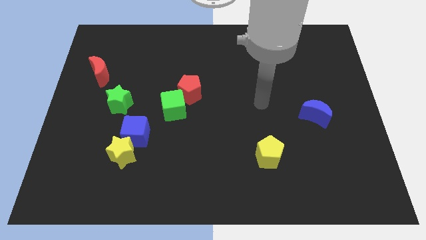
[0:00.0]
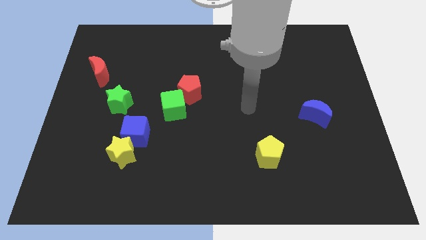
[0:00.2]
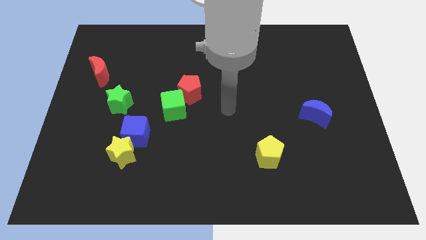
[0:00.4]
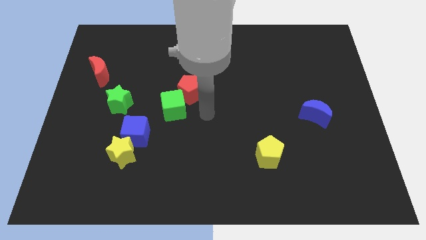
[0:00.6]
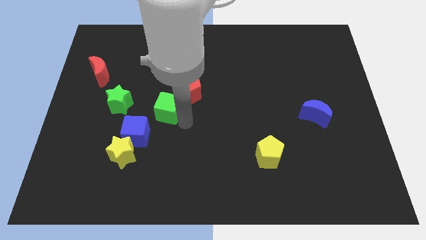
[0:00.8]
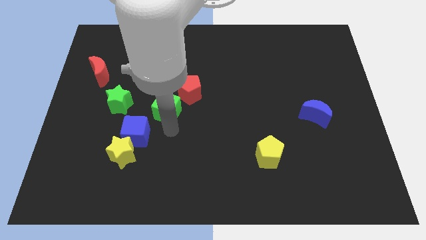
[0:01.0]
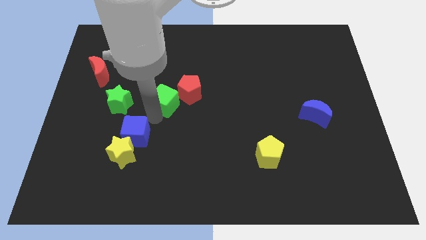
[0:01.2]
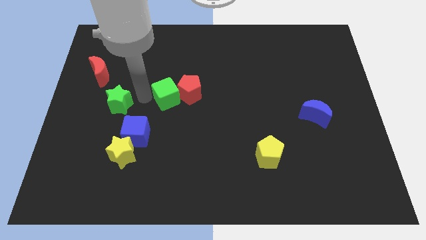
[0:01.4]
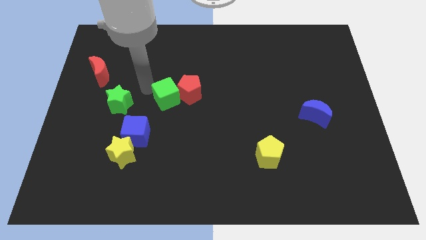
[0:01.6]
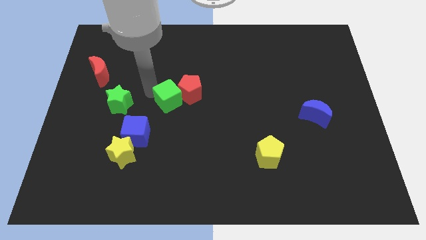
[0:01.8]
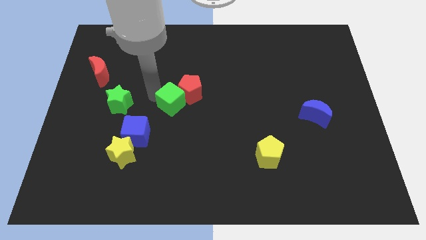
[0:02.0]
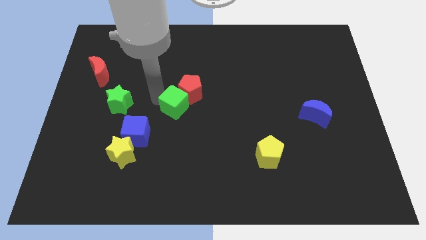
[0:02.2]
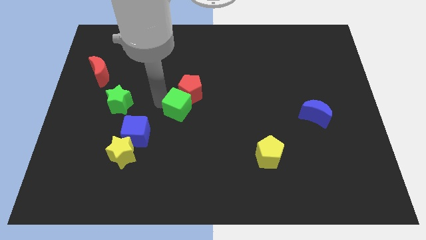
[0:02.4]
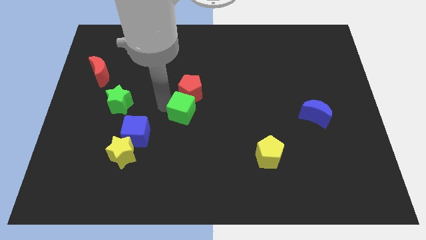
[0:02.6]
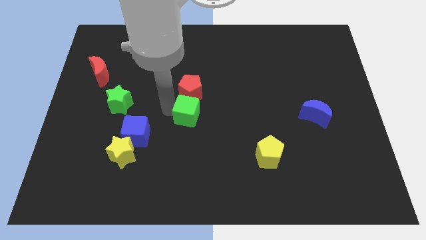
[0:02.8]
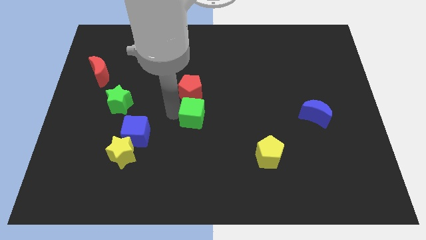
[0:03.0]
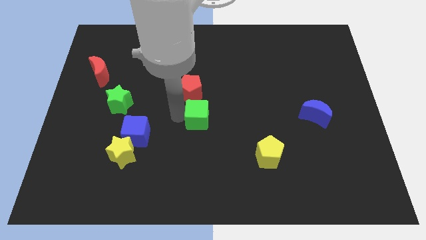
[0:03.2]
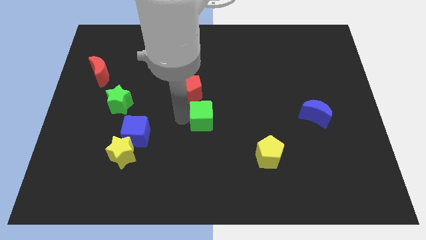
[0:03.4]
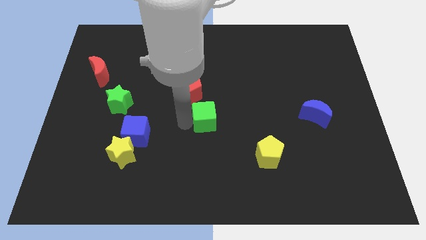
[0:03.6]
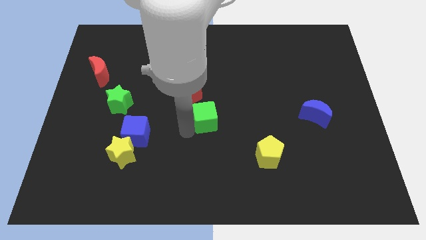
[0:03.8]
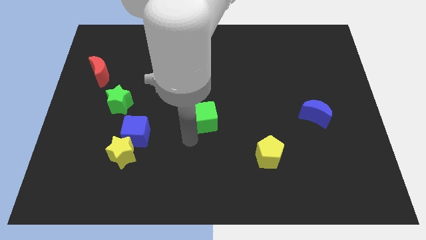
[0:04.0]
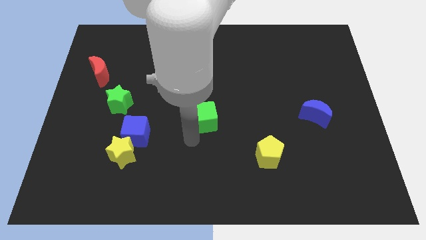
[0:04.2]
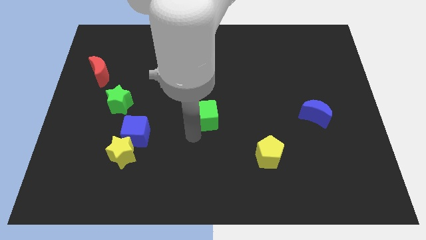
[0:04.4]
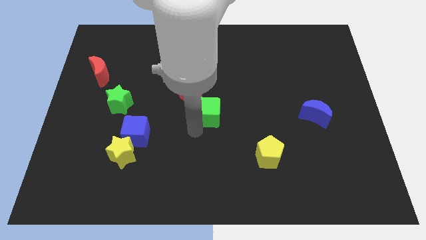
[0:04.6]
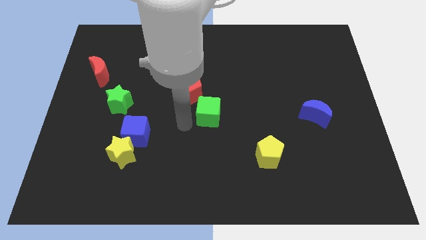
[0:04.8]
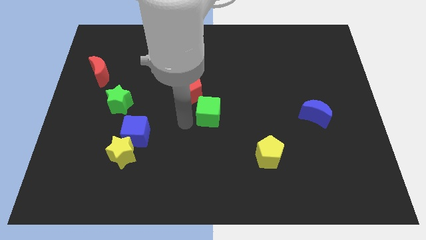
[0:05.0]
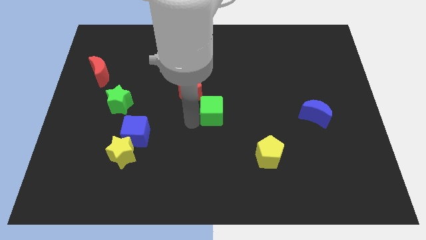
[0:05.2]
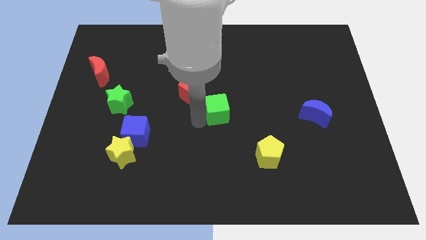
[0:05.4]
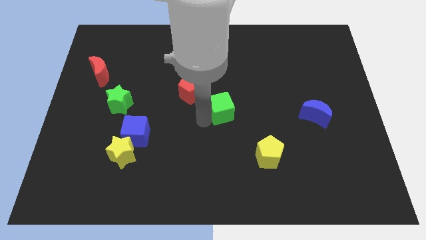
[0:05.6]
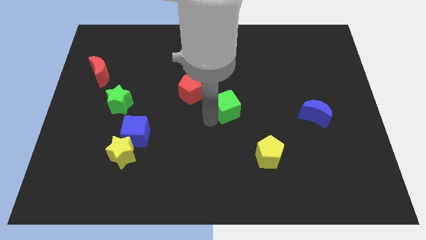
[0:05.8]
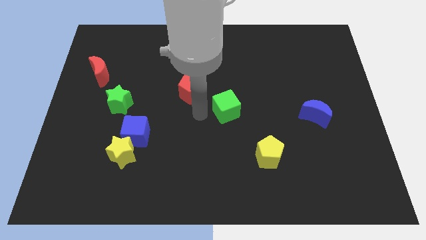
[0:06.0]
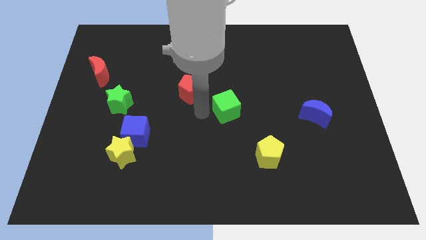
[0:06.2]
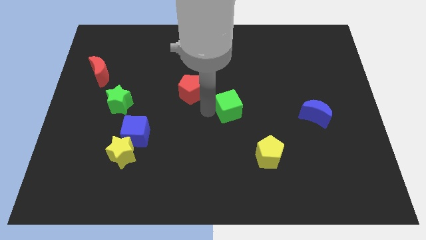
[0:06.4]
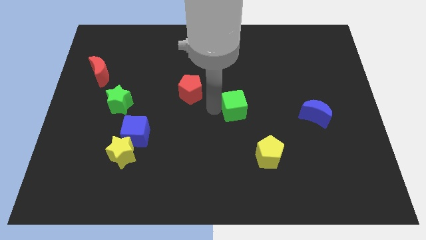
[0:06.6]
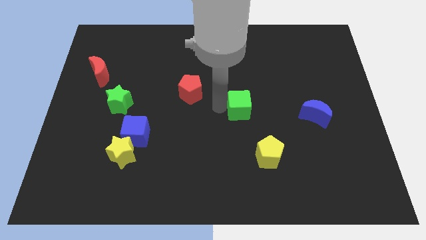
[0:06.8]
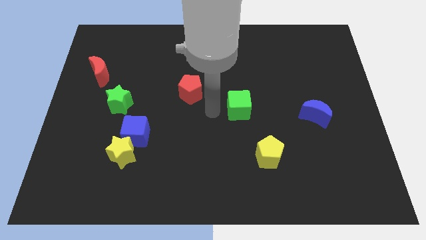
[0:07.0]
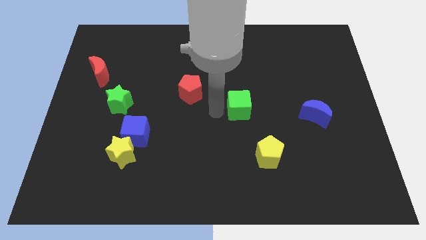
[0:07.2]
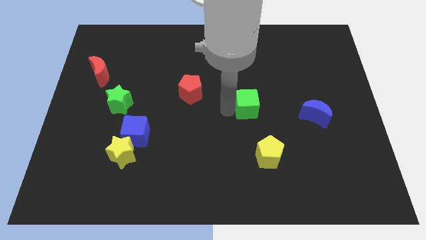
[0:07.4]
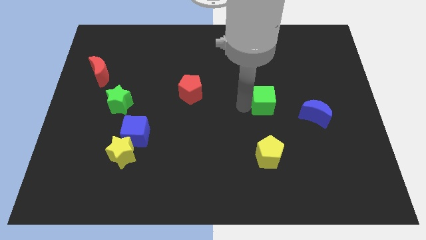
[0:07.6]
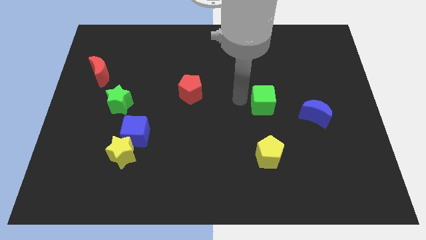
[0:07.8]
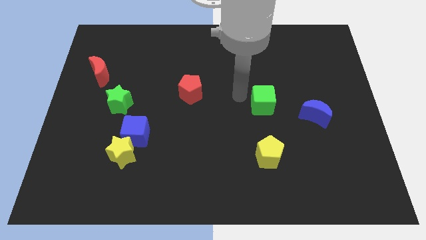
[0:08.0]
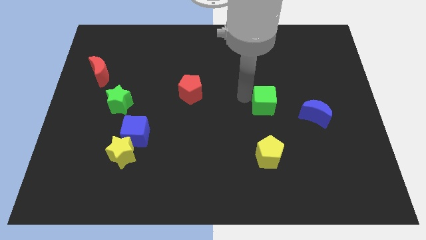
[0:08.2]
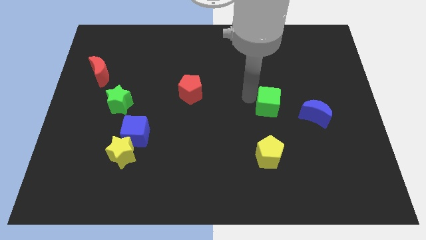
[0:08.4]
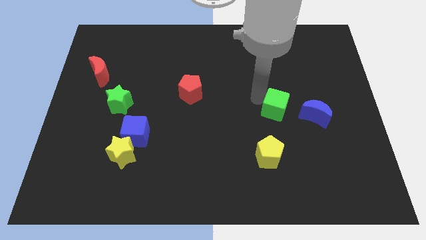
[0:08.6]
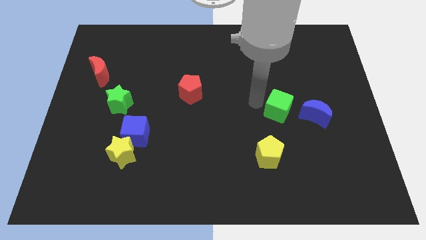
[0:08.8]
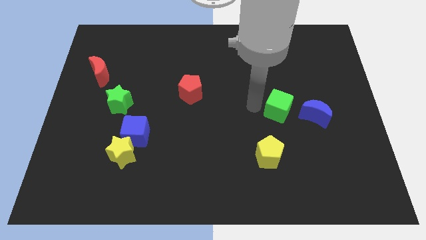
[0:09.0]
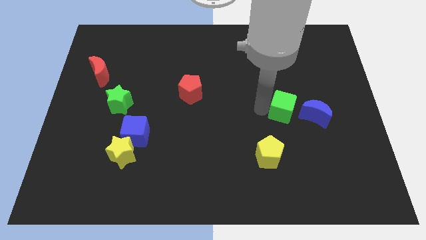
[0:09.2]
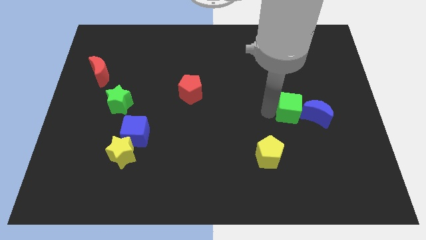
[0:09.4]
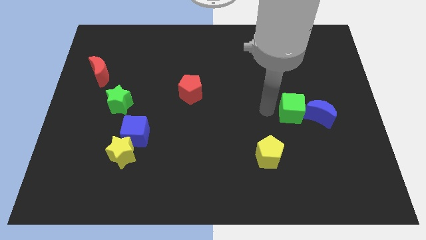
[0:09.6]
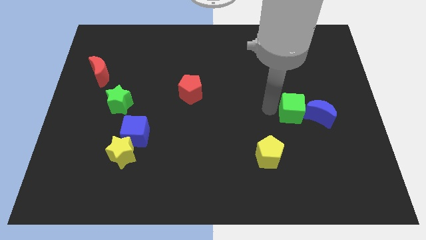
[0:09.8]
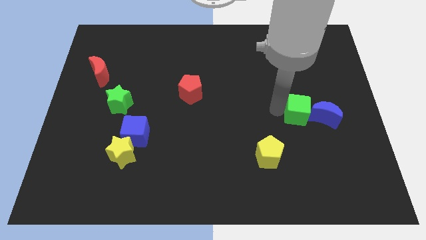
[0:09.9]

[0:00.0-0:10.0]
push the green cube towards the blue moon

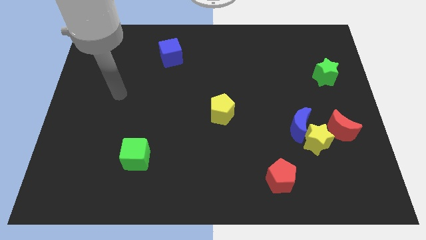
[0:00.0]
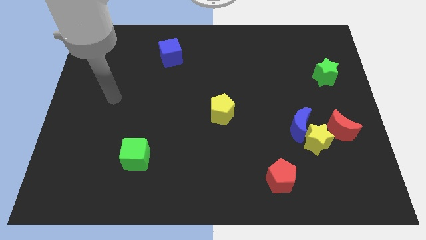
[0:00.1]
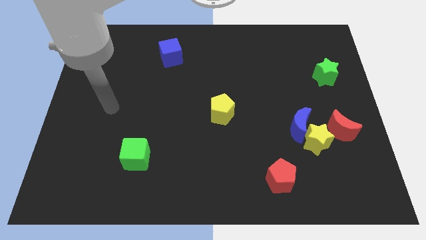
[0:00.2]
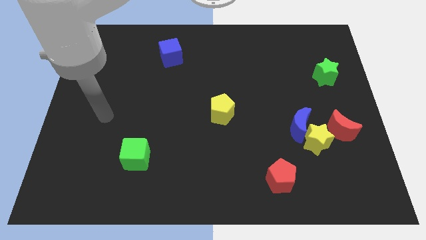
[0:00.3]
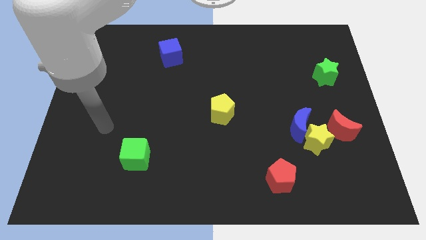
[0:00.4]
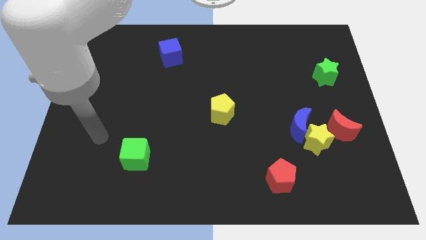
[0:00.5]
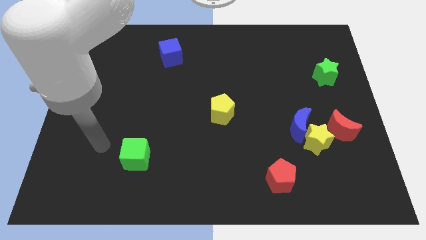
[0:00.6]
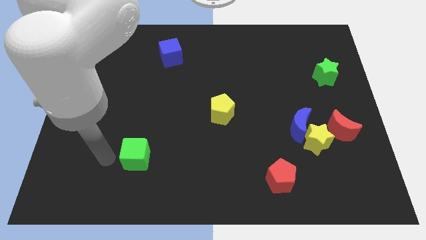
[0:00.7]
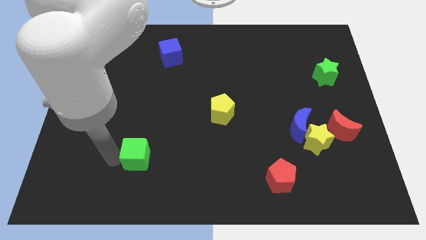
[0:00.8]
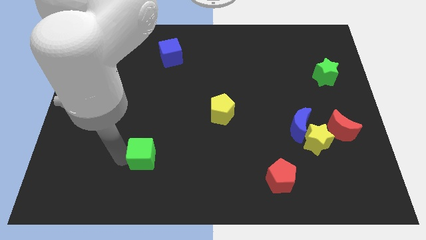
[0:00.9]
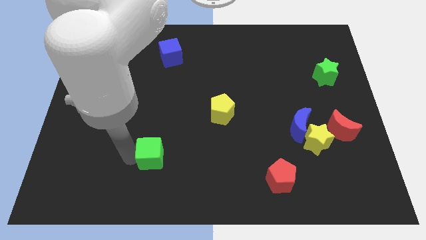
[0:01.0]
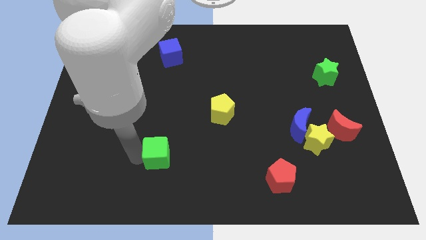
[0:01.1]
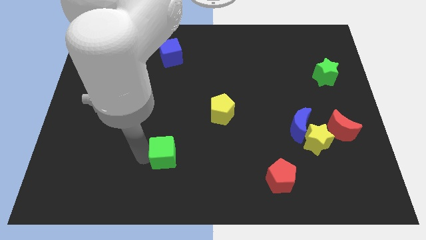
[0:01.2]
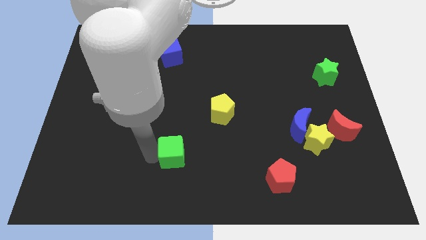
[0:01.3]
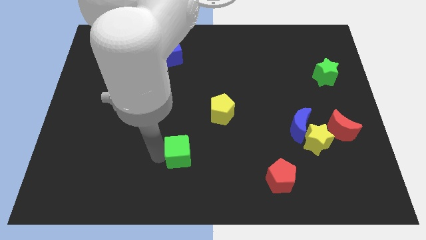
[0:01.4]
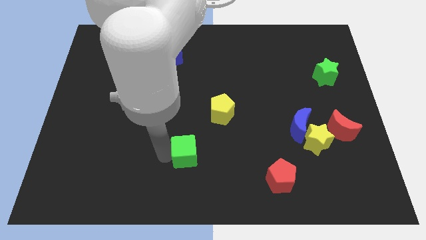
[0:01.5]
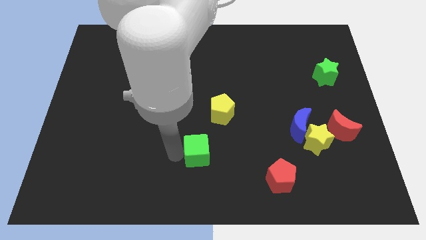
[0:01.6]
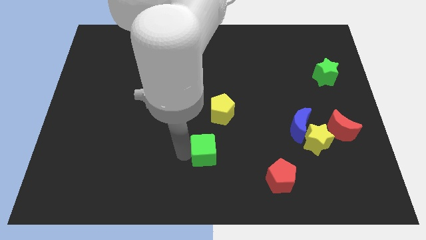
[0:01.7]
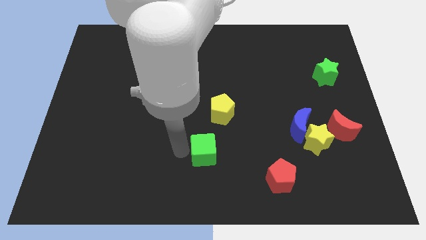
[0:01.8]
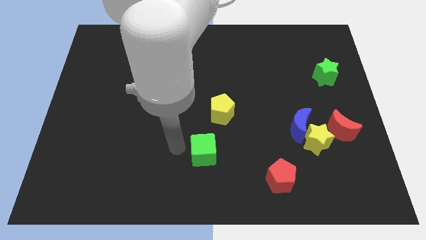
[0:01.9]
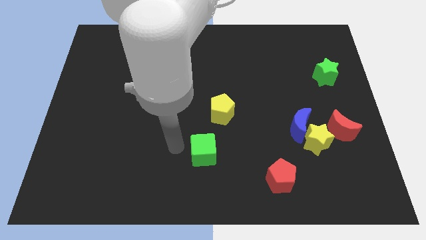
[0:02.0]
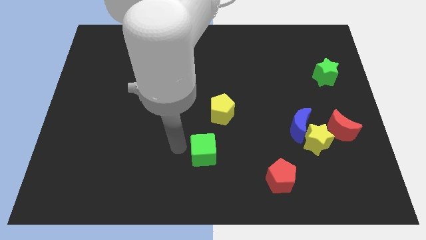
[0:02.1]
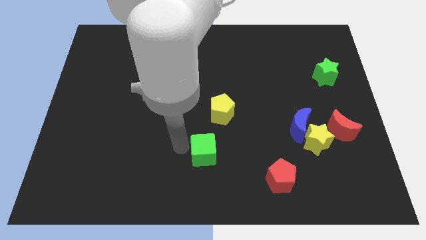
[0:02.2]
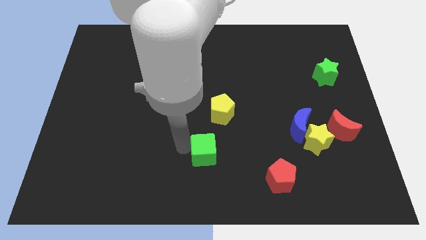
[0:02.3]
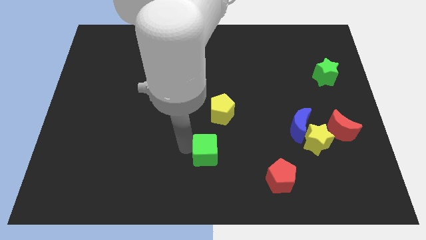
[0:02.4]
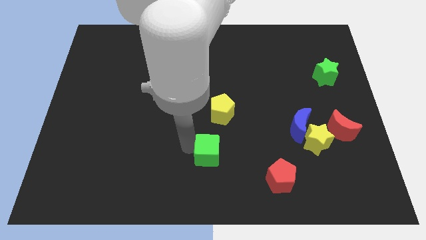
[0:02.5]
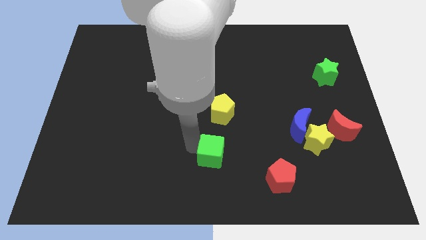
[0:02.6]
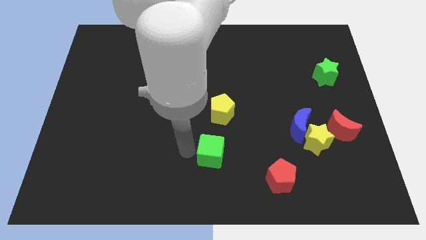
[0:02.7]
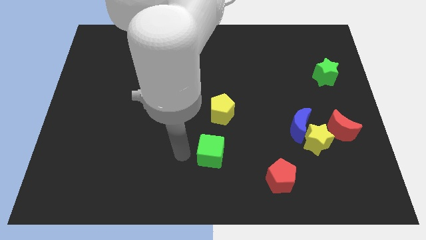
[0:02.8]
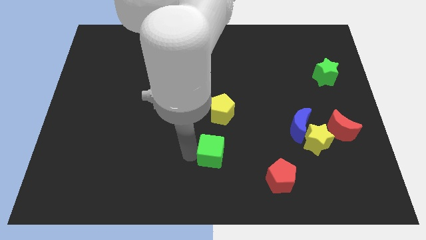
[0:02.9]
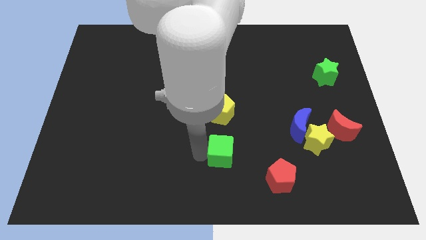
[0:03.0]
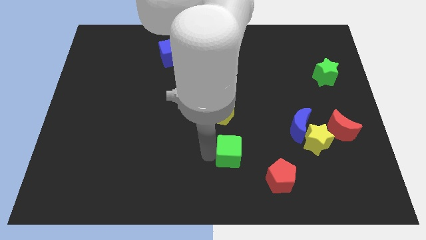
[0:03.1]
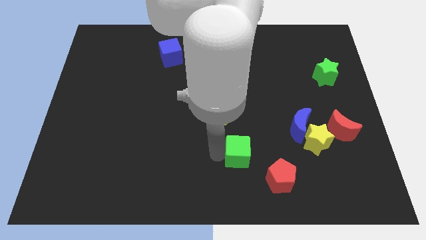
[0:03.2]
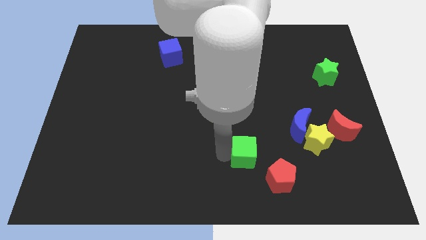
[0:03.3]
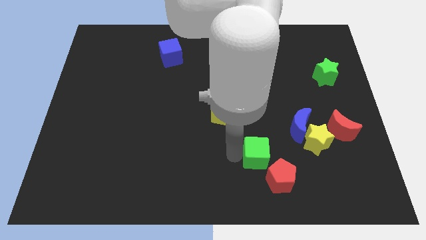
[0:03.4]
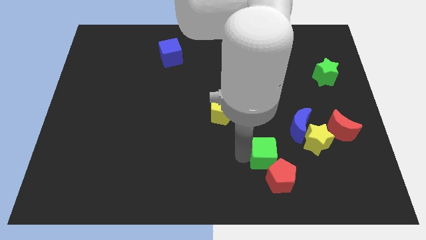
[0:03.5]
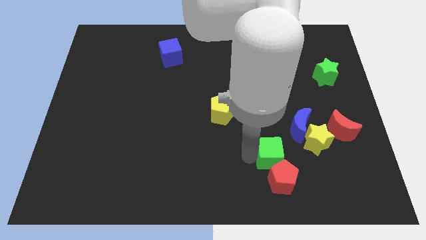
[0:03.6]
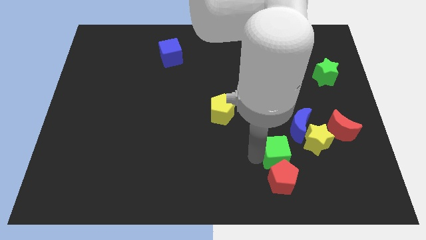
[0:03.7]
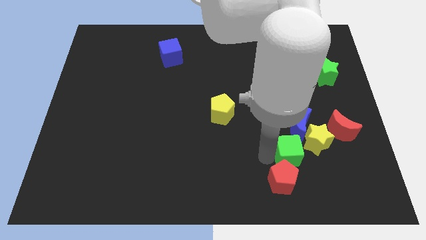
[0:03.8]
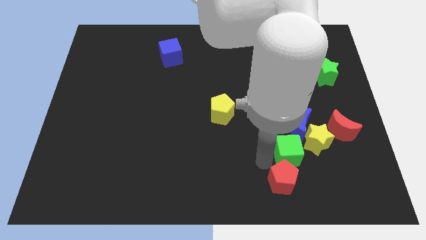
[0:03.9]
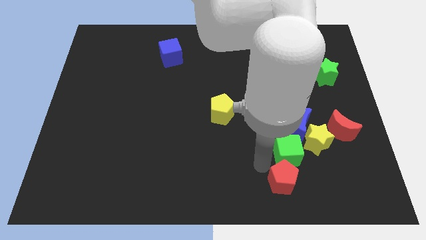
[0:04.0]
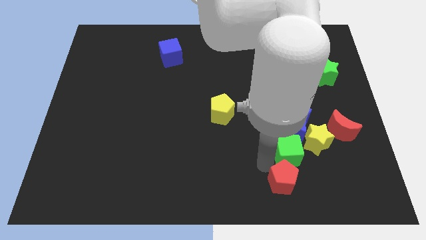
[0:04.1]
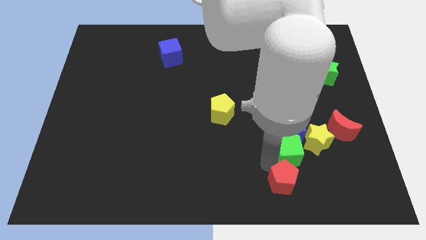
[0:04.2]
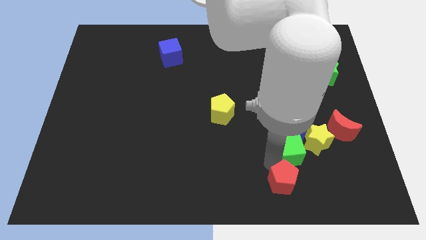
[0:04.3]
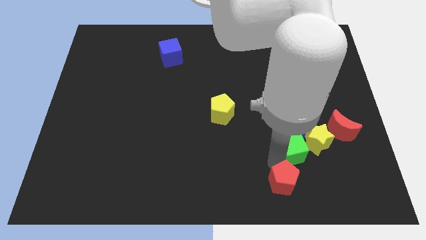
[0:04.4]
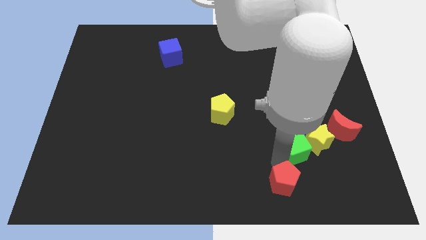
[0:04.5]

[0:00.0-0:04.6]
slide the green cube to the yellow star
